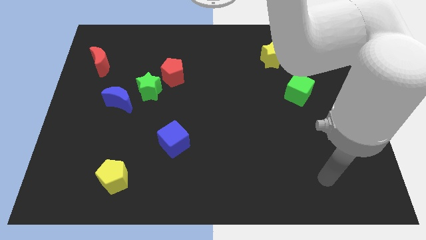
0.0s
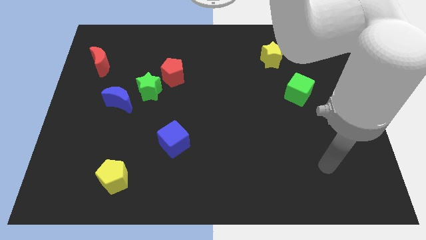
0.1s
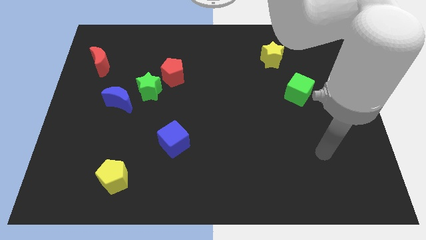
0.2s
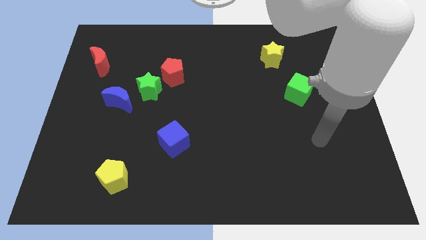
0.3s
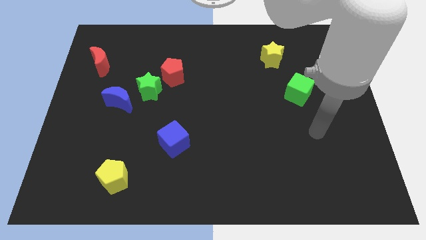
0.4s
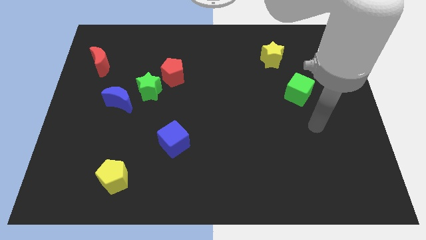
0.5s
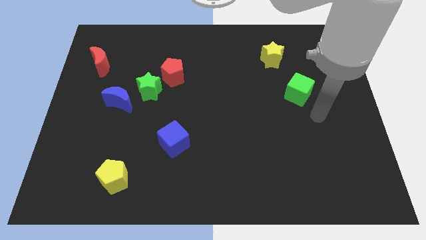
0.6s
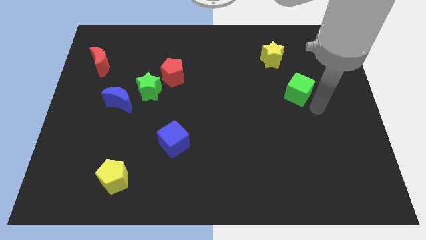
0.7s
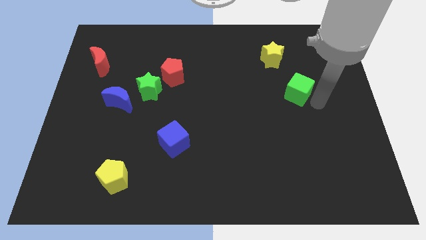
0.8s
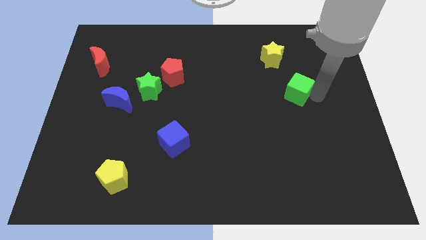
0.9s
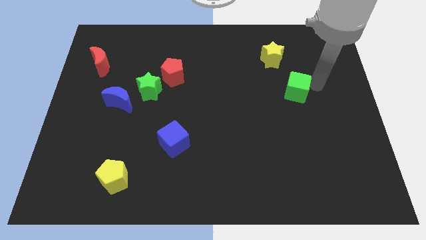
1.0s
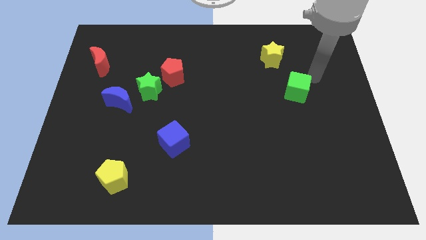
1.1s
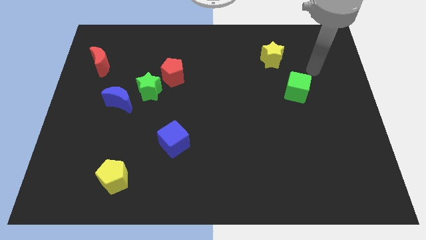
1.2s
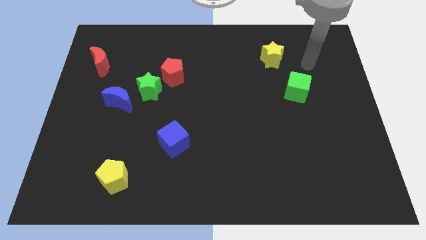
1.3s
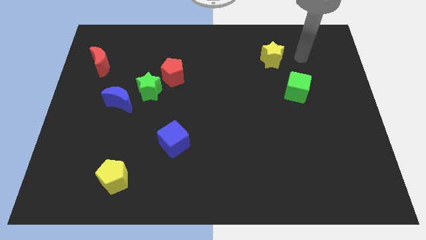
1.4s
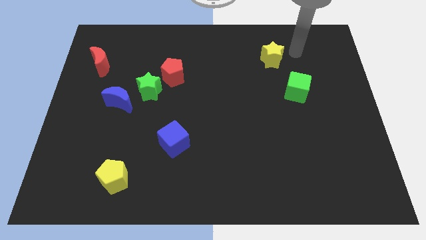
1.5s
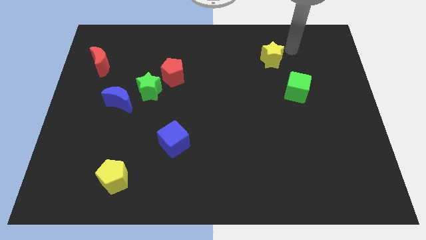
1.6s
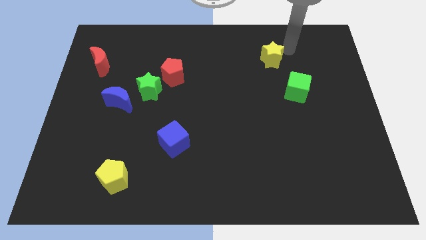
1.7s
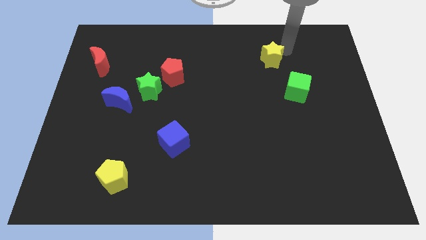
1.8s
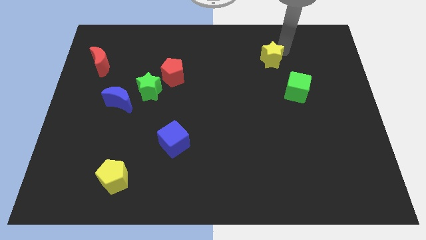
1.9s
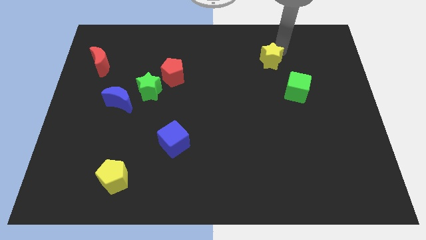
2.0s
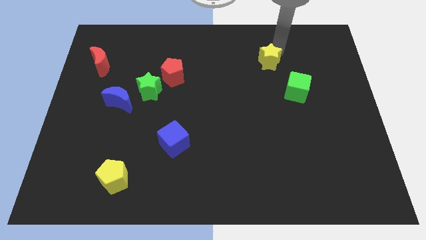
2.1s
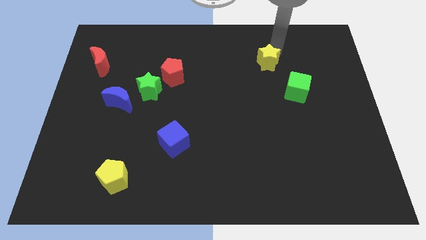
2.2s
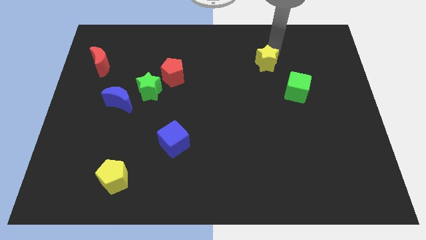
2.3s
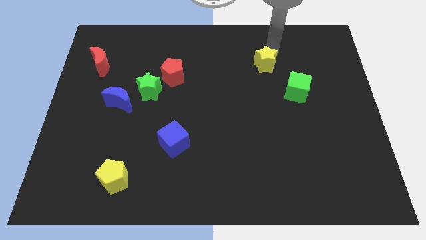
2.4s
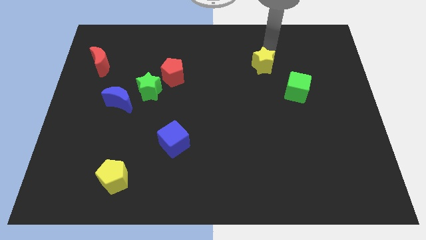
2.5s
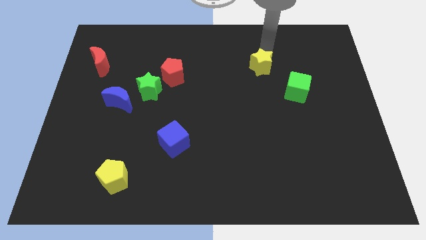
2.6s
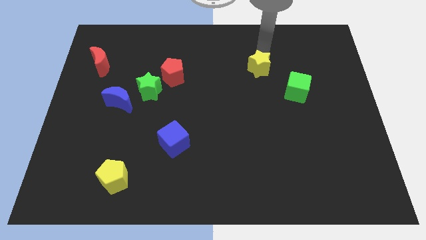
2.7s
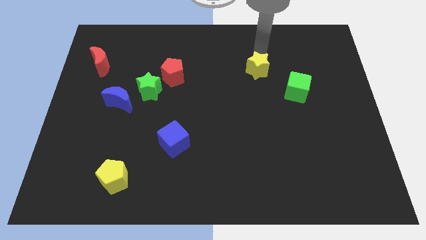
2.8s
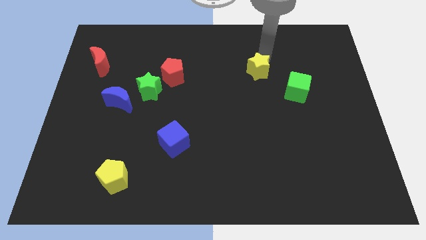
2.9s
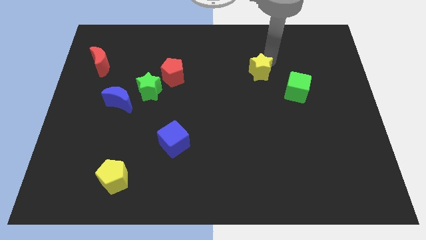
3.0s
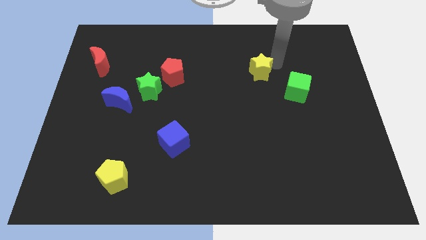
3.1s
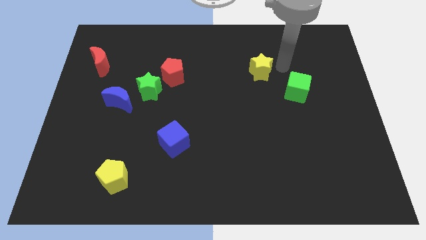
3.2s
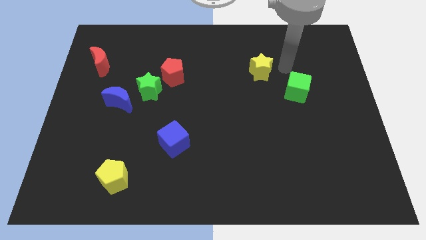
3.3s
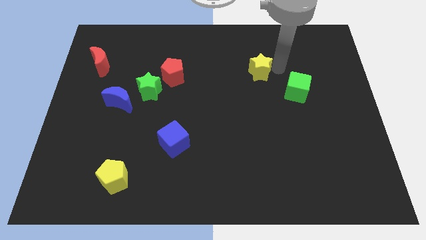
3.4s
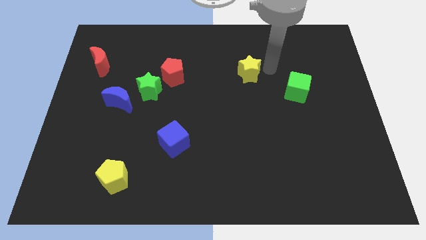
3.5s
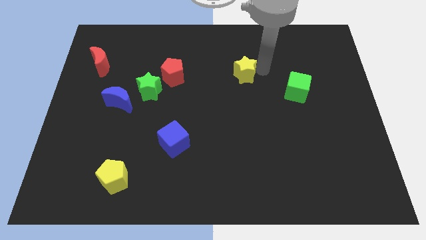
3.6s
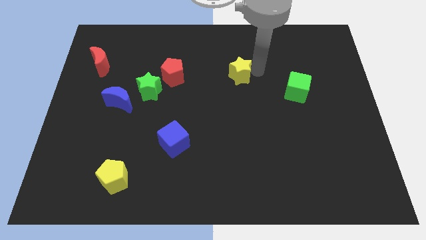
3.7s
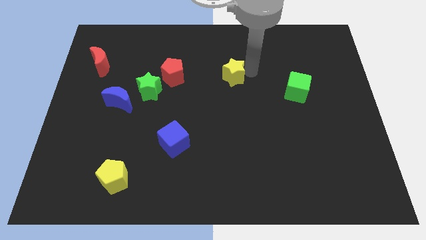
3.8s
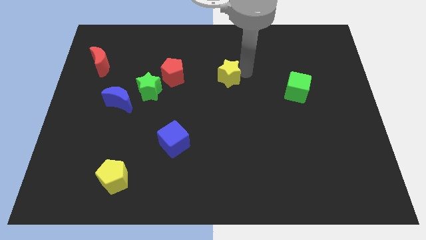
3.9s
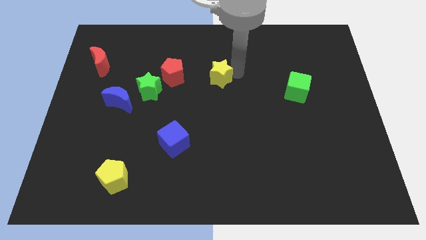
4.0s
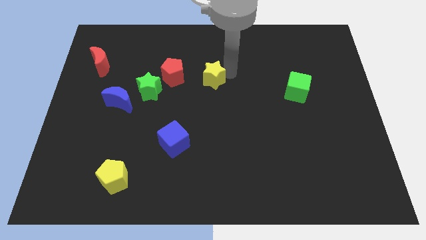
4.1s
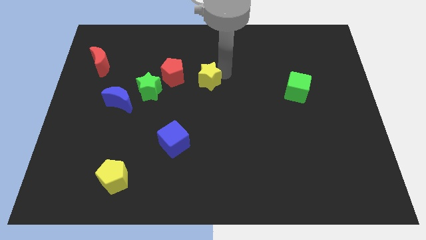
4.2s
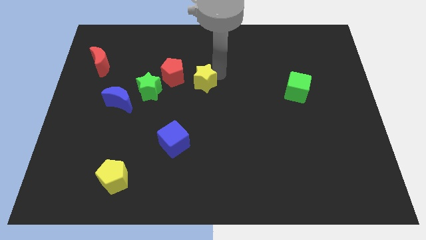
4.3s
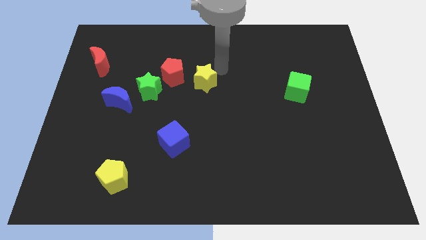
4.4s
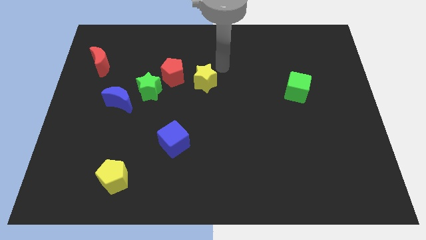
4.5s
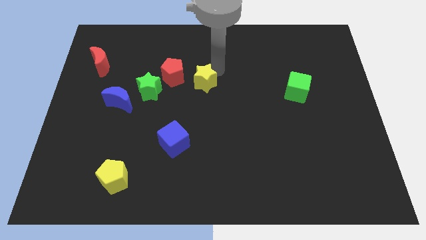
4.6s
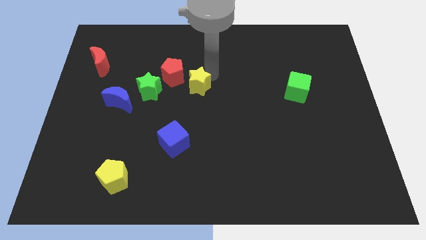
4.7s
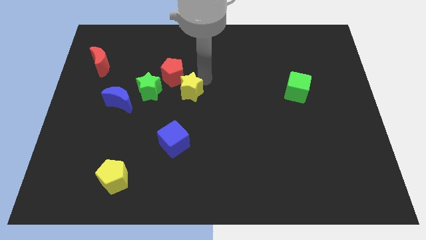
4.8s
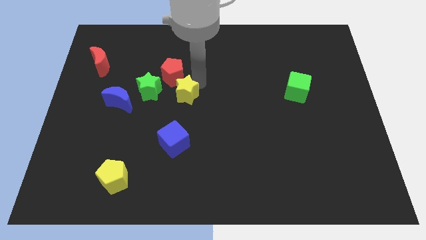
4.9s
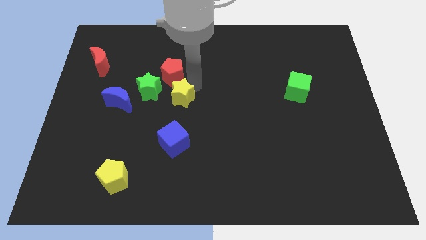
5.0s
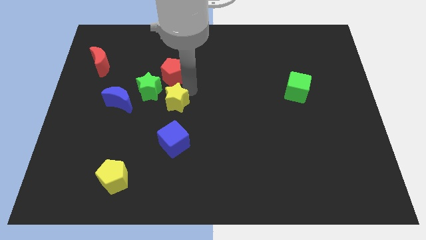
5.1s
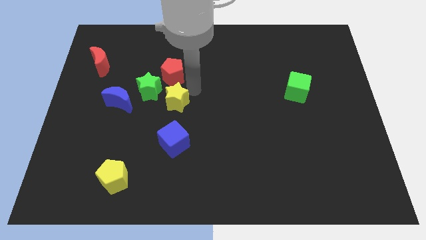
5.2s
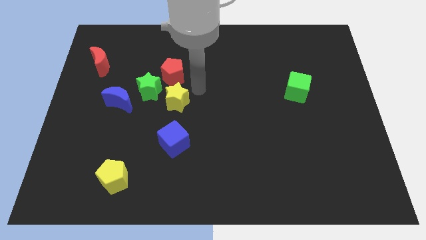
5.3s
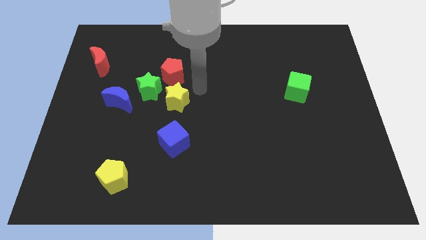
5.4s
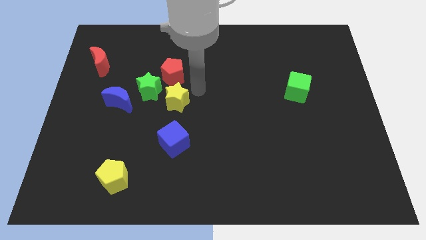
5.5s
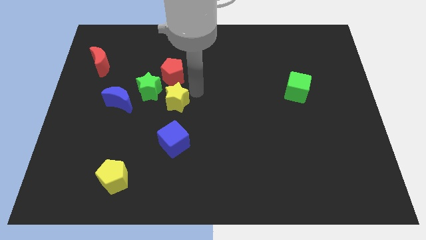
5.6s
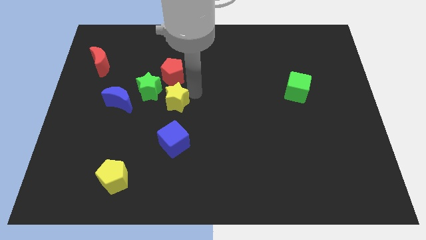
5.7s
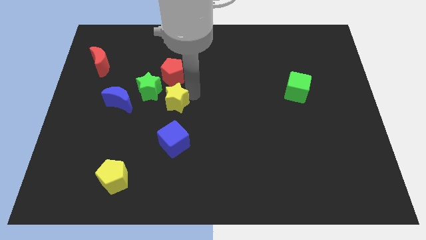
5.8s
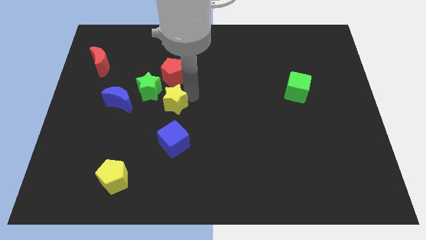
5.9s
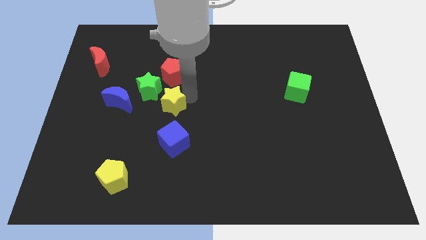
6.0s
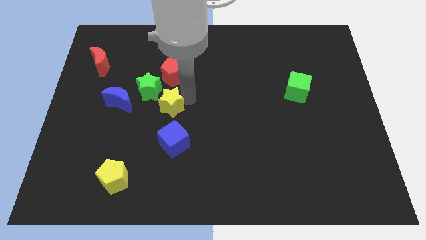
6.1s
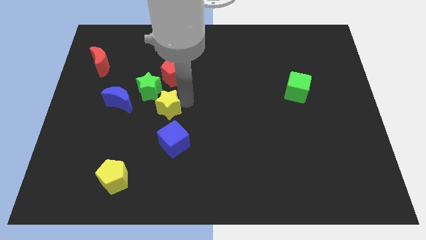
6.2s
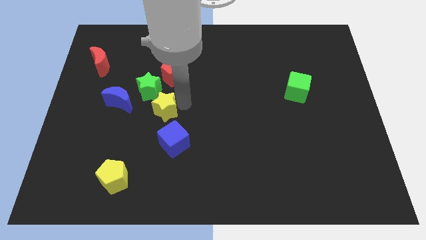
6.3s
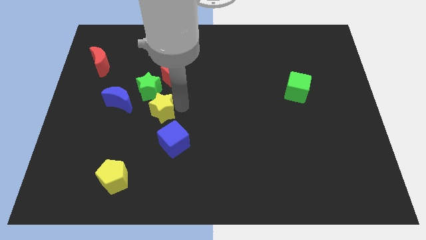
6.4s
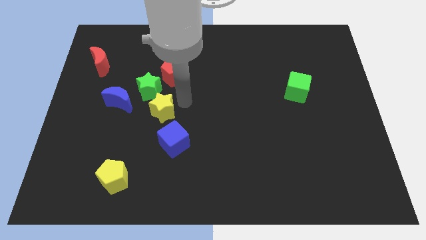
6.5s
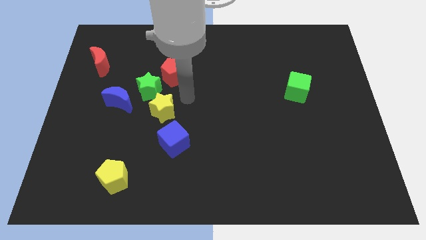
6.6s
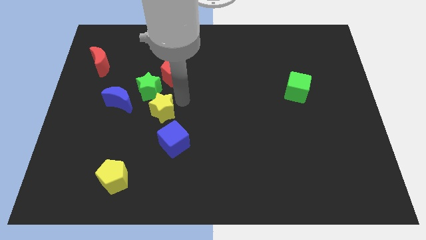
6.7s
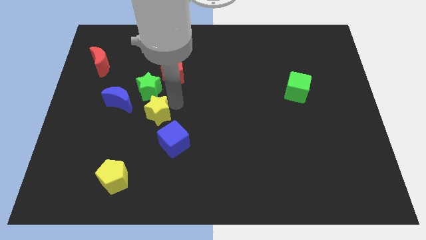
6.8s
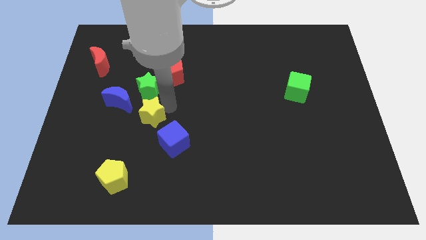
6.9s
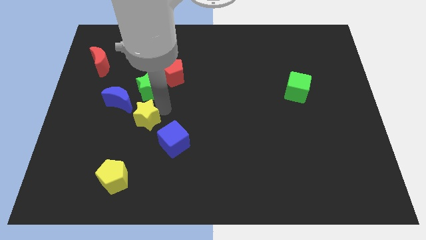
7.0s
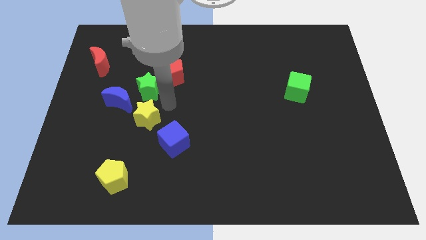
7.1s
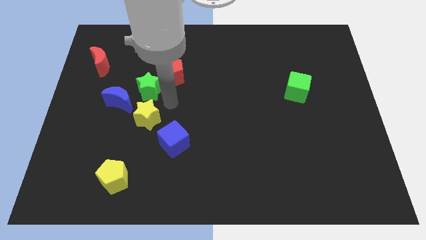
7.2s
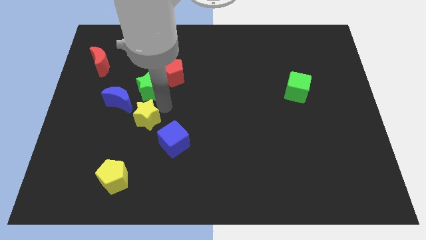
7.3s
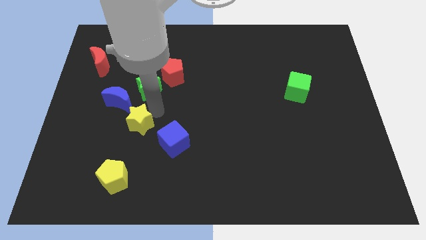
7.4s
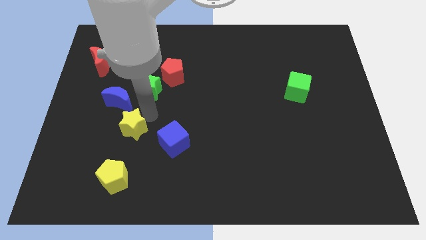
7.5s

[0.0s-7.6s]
slide the yellow star to the bottom side of the blue moon
